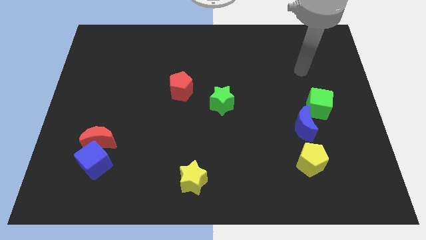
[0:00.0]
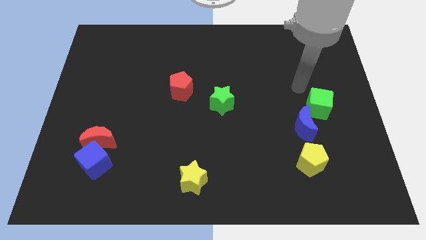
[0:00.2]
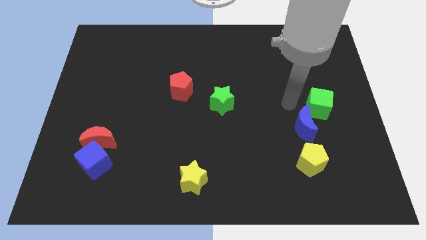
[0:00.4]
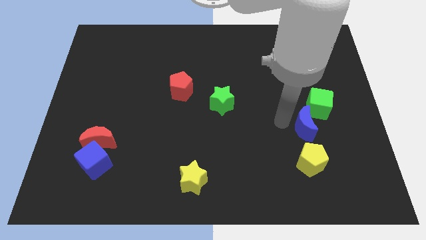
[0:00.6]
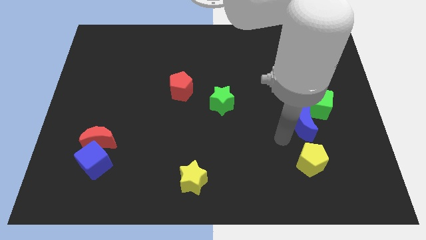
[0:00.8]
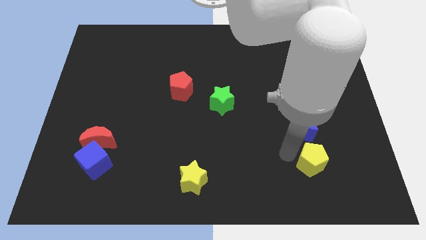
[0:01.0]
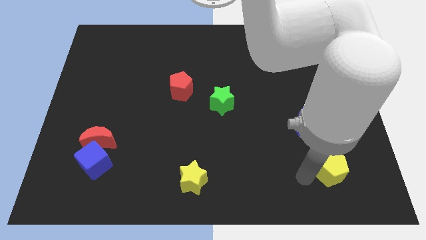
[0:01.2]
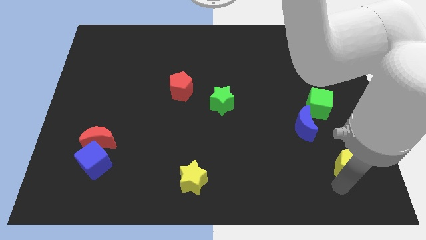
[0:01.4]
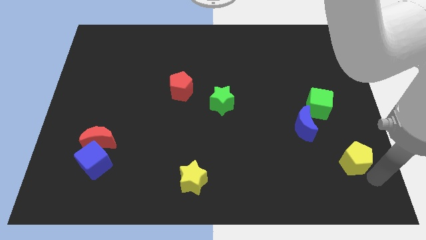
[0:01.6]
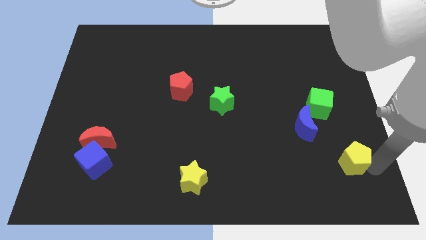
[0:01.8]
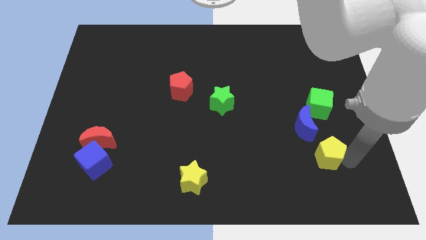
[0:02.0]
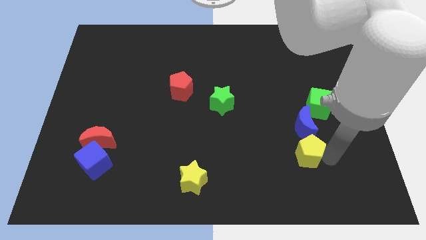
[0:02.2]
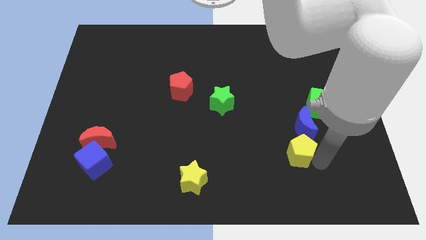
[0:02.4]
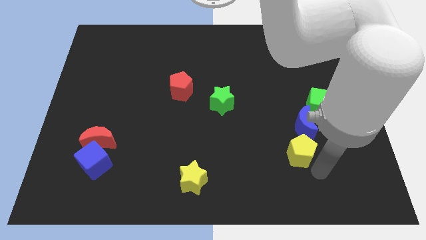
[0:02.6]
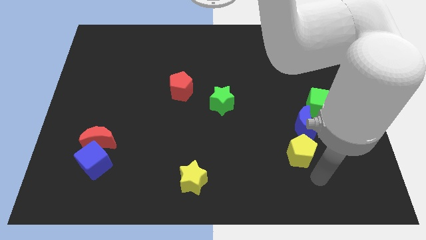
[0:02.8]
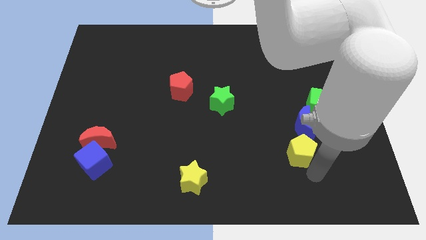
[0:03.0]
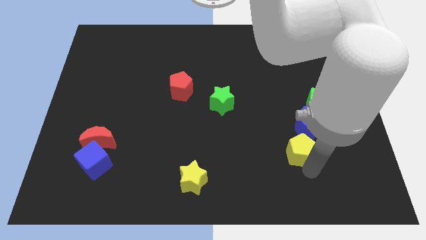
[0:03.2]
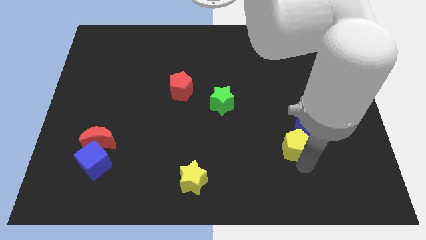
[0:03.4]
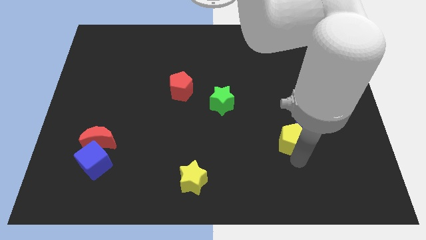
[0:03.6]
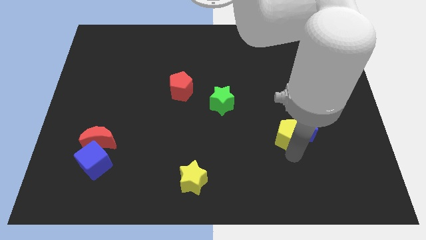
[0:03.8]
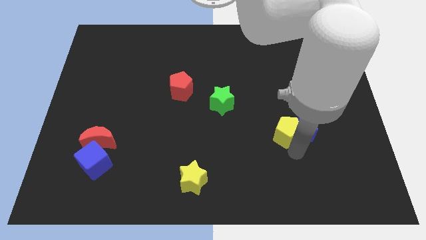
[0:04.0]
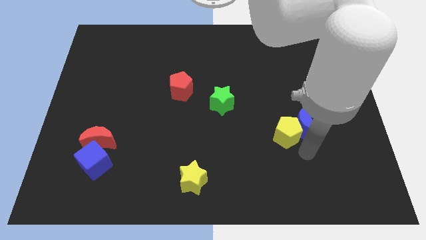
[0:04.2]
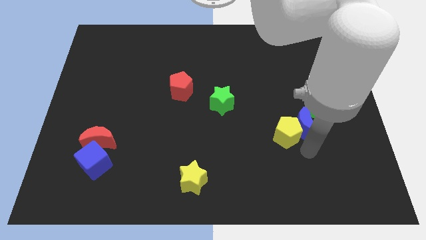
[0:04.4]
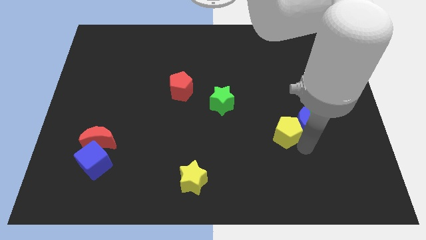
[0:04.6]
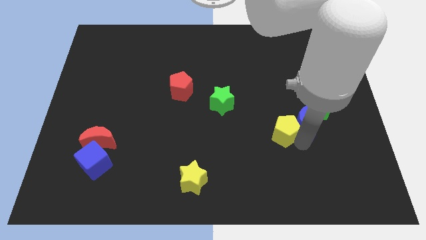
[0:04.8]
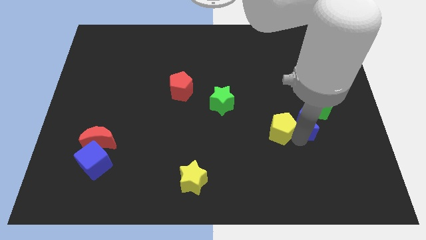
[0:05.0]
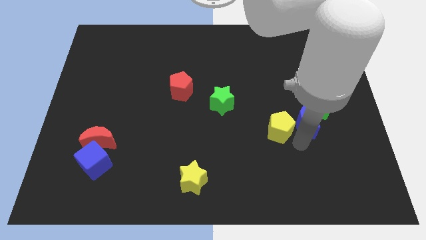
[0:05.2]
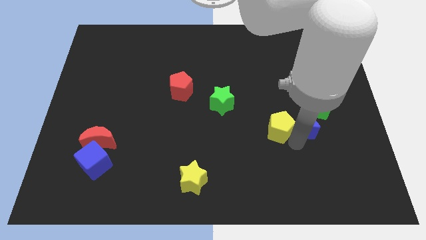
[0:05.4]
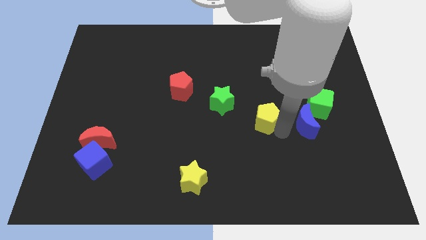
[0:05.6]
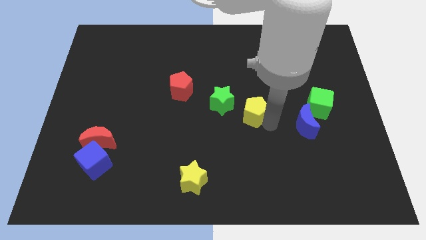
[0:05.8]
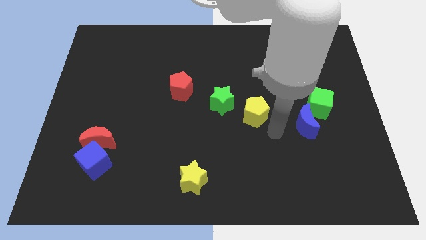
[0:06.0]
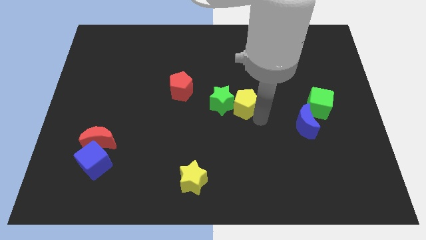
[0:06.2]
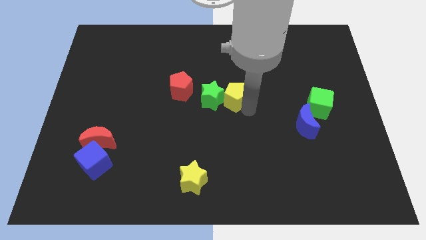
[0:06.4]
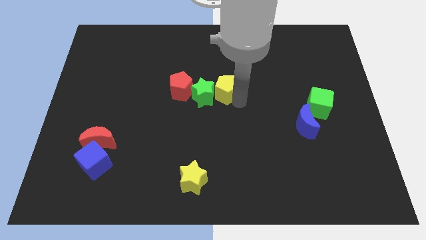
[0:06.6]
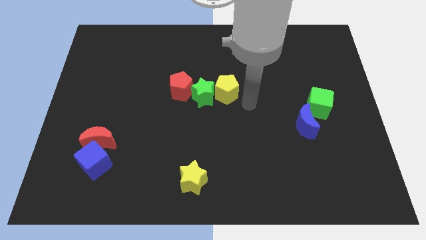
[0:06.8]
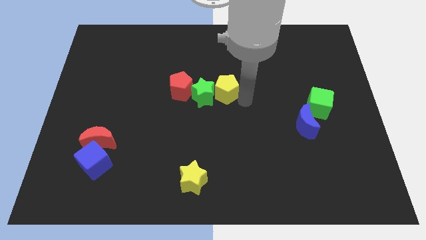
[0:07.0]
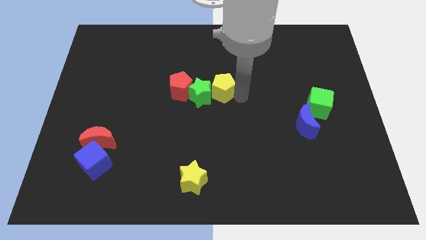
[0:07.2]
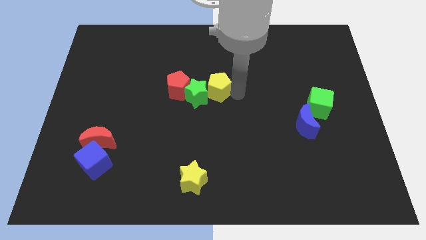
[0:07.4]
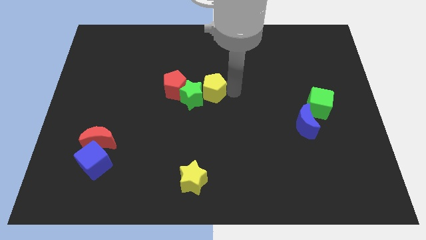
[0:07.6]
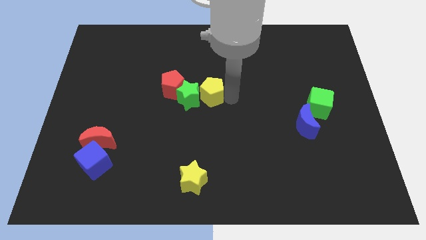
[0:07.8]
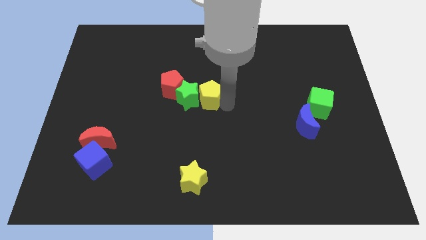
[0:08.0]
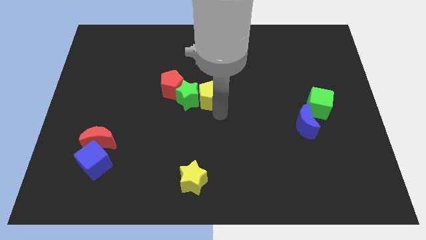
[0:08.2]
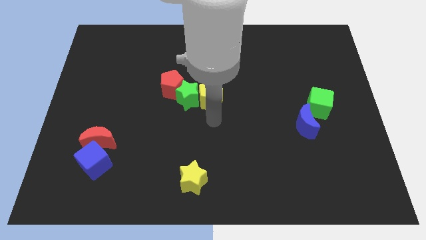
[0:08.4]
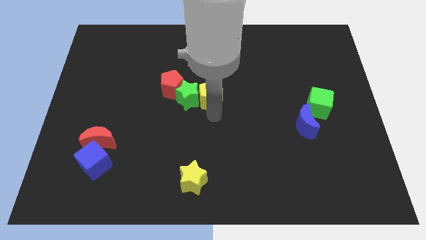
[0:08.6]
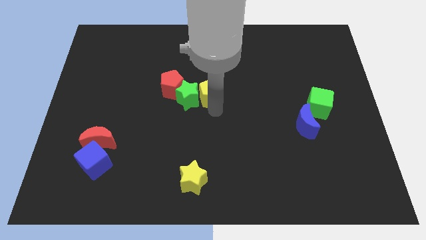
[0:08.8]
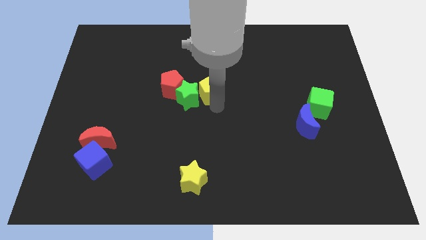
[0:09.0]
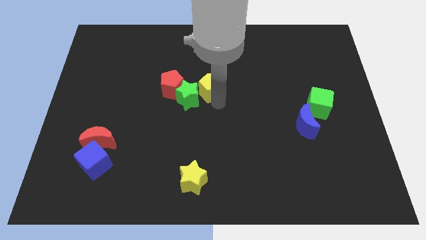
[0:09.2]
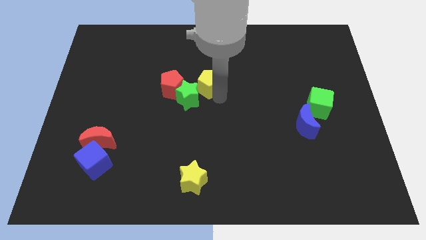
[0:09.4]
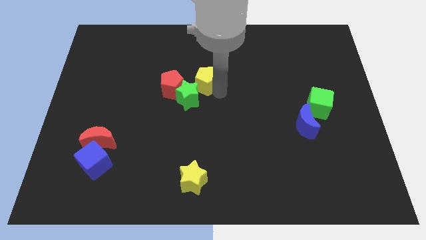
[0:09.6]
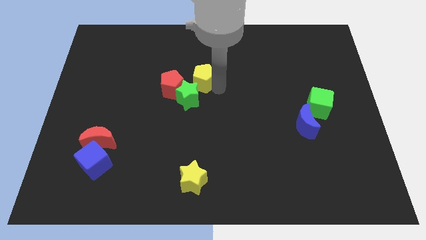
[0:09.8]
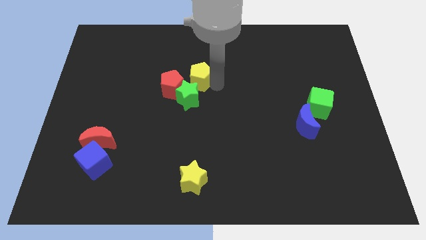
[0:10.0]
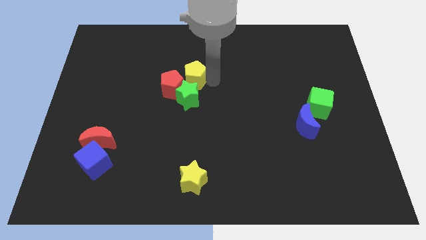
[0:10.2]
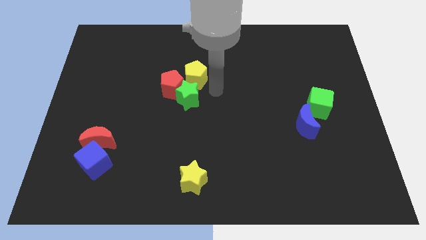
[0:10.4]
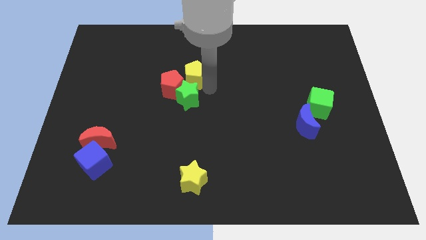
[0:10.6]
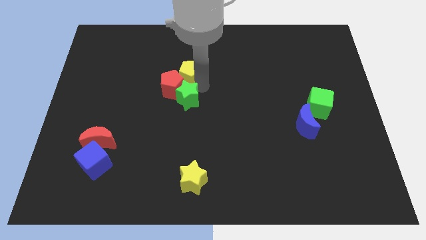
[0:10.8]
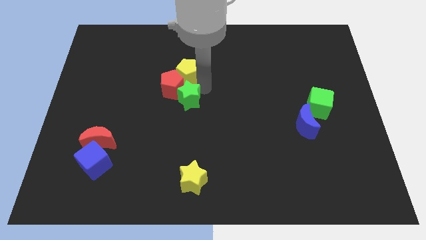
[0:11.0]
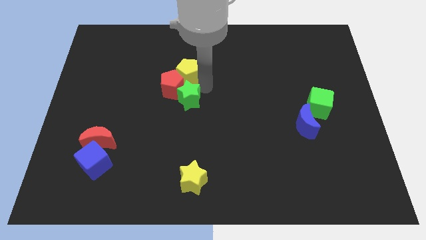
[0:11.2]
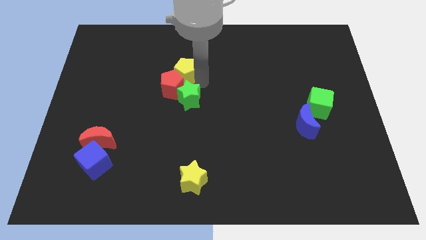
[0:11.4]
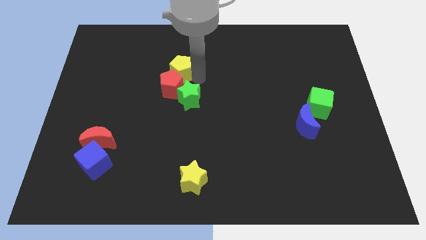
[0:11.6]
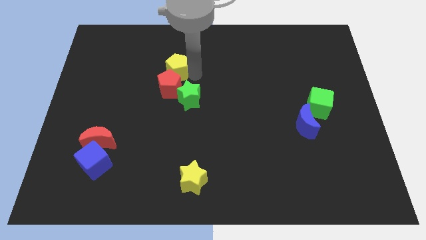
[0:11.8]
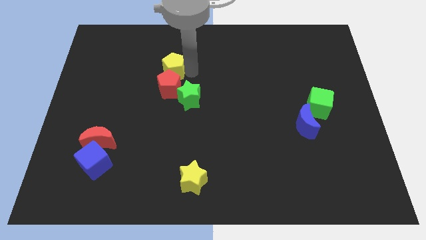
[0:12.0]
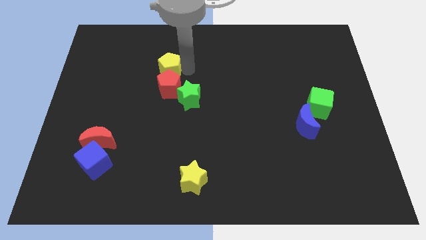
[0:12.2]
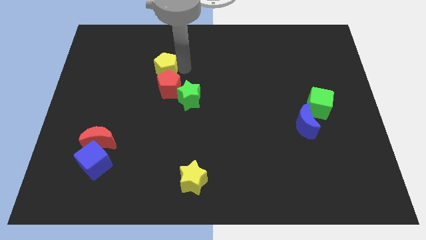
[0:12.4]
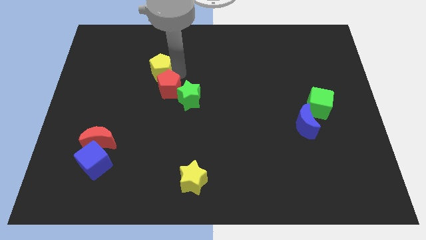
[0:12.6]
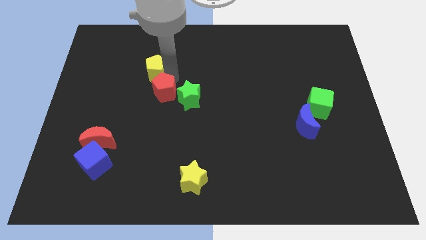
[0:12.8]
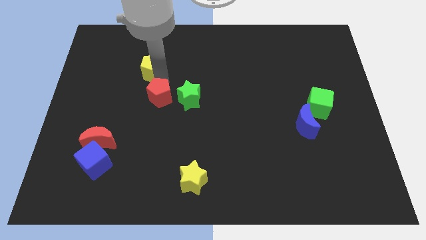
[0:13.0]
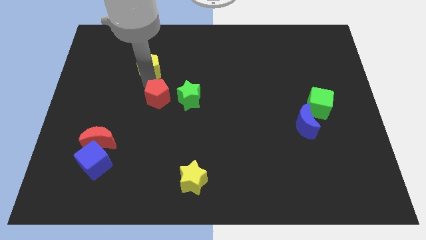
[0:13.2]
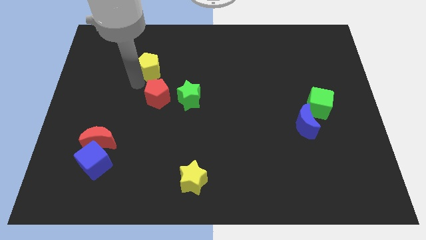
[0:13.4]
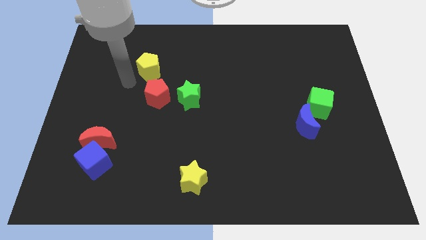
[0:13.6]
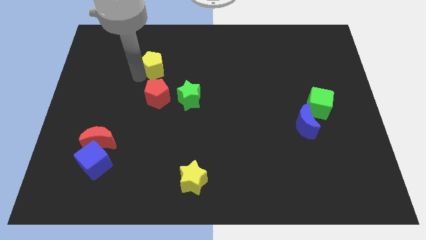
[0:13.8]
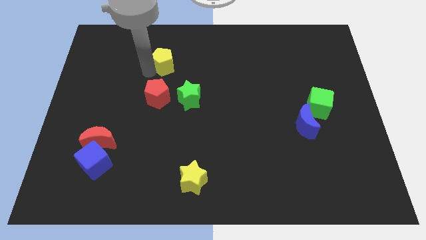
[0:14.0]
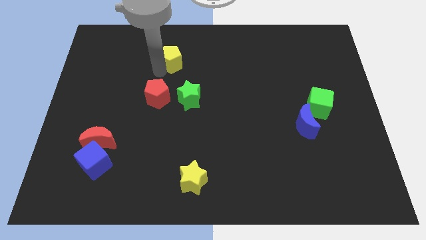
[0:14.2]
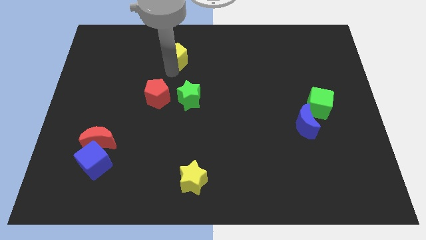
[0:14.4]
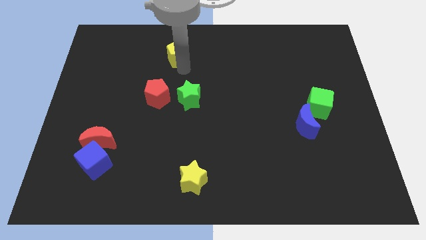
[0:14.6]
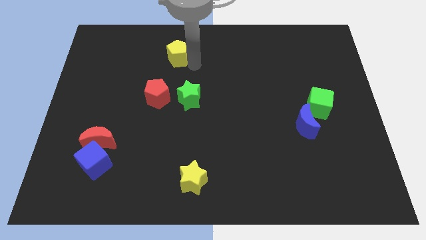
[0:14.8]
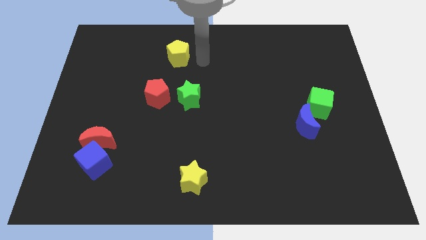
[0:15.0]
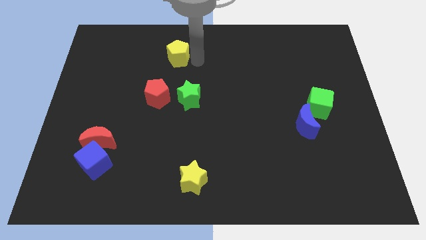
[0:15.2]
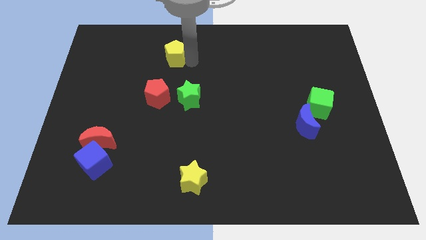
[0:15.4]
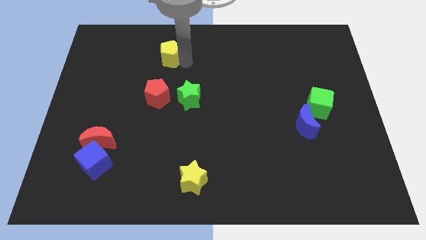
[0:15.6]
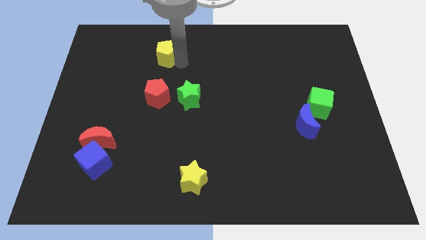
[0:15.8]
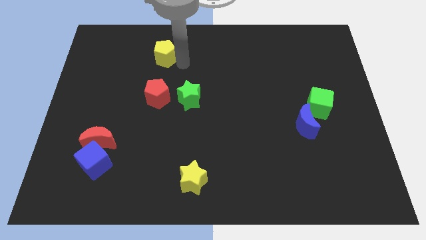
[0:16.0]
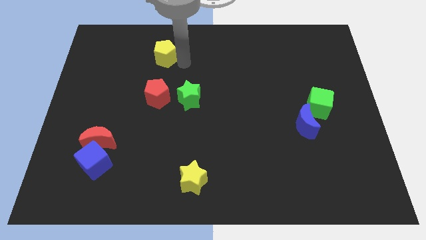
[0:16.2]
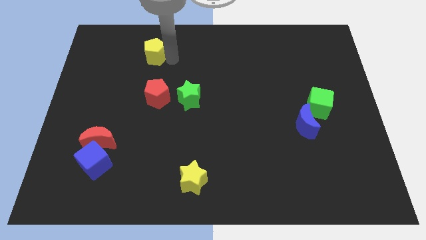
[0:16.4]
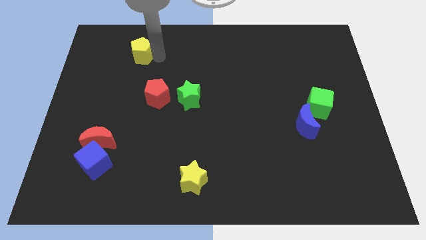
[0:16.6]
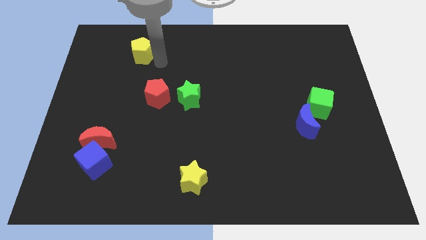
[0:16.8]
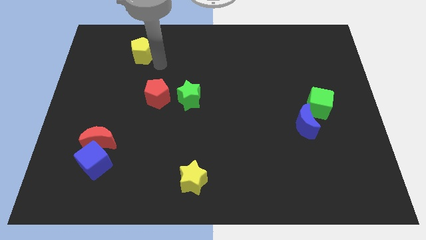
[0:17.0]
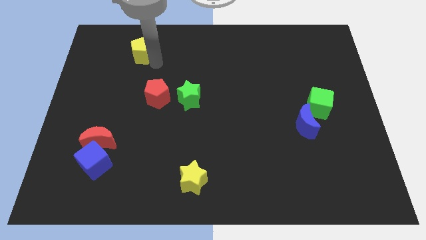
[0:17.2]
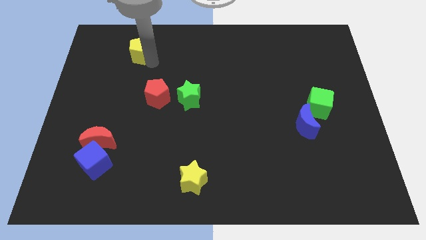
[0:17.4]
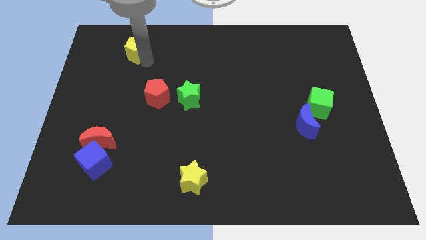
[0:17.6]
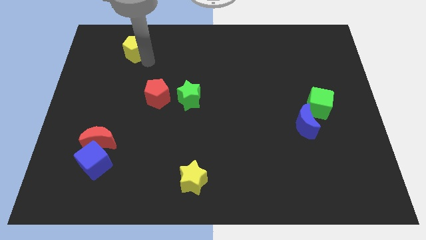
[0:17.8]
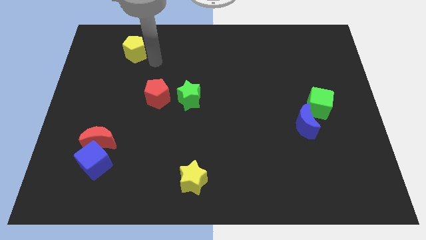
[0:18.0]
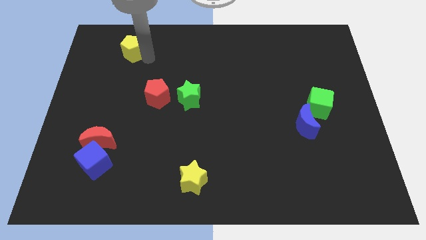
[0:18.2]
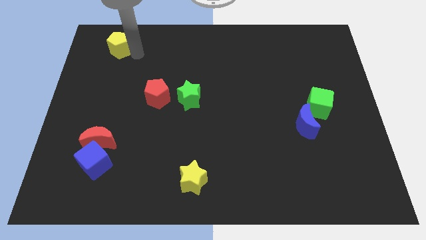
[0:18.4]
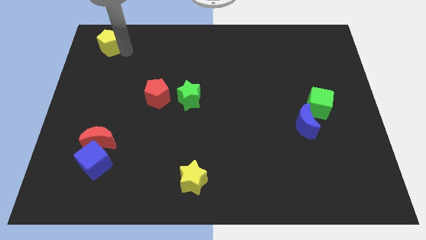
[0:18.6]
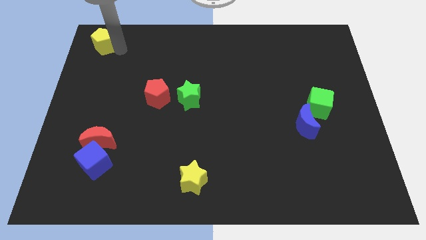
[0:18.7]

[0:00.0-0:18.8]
move the yellow pentagon to the top left corner
